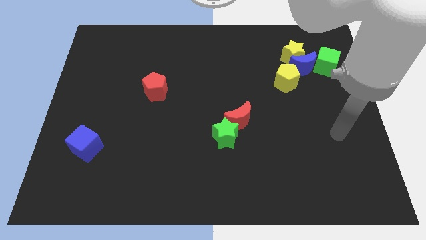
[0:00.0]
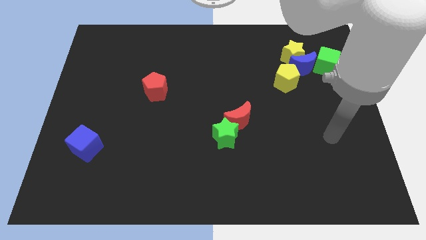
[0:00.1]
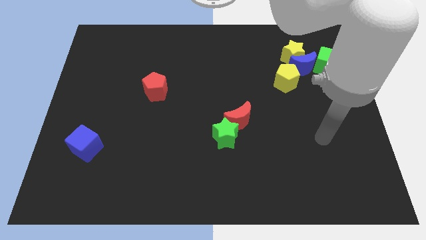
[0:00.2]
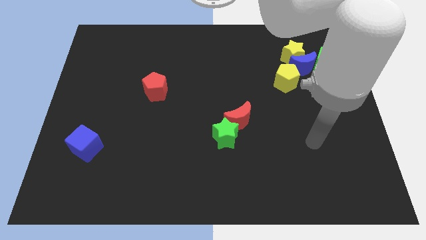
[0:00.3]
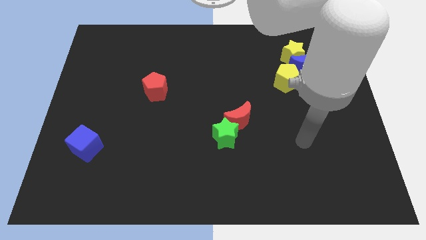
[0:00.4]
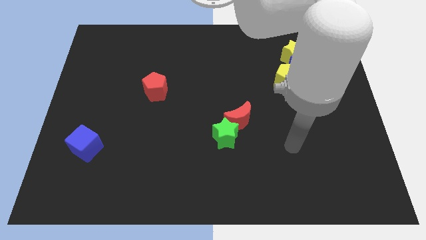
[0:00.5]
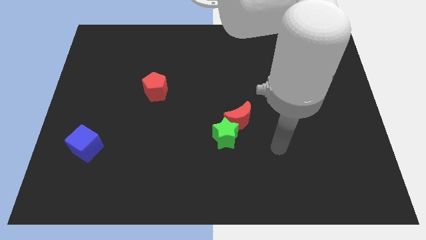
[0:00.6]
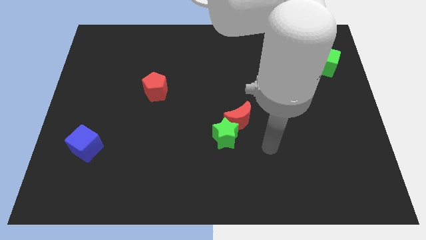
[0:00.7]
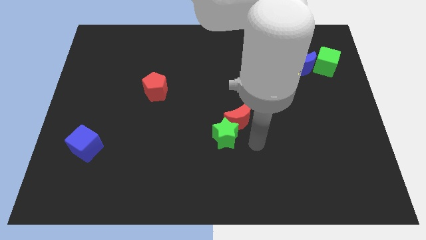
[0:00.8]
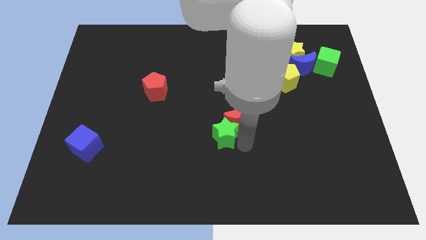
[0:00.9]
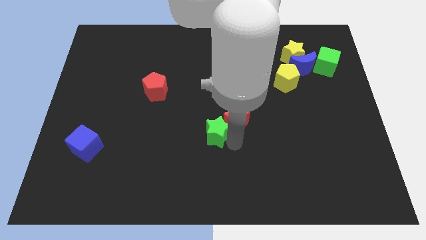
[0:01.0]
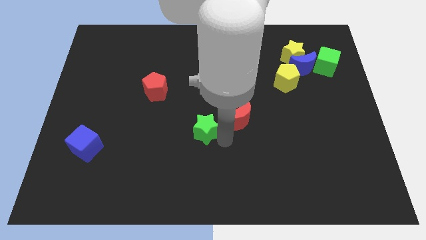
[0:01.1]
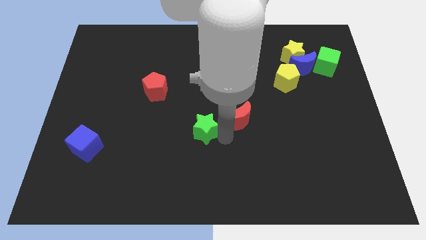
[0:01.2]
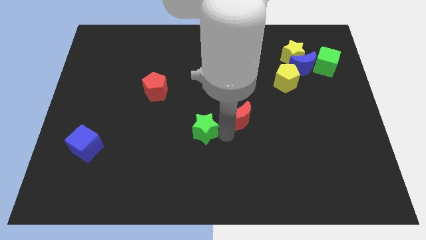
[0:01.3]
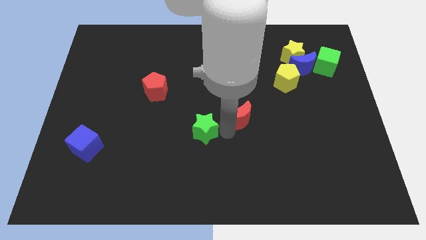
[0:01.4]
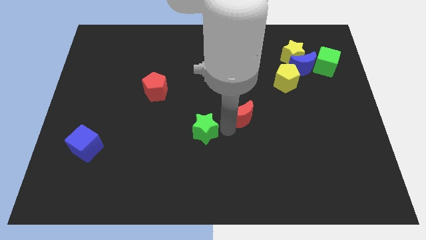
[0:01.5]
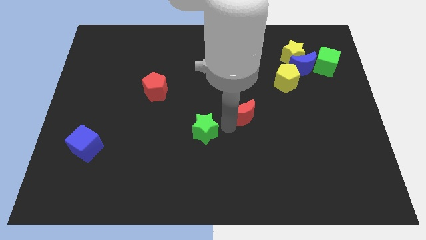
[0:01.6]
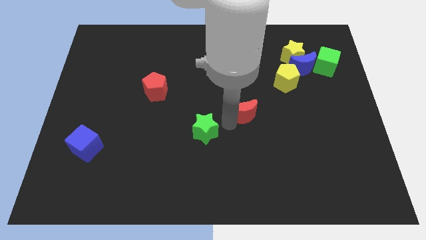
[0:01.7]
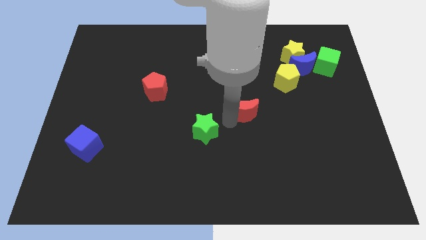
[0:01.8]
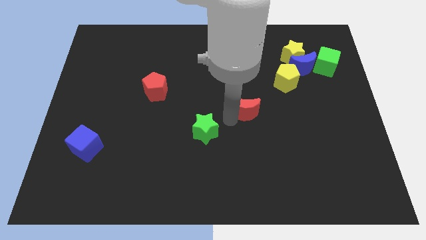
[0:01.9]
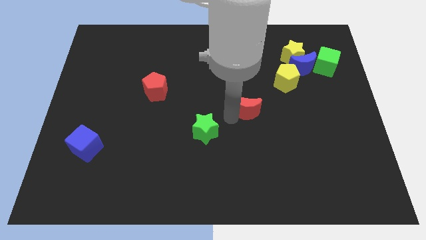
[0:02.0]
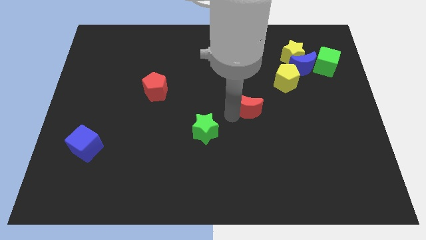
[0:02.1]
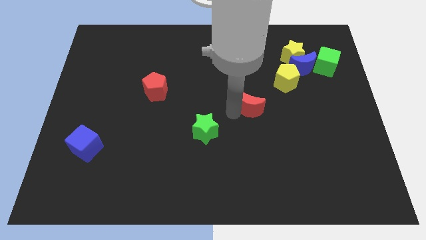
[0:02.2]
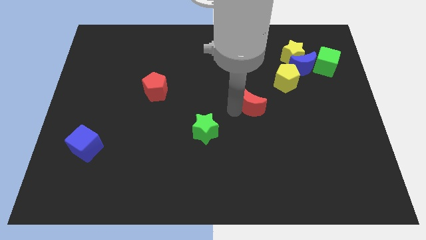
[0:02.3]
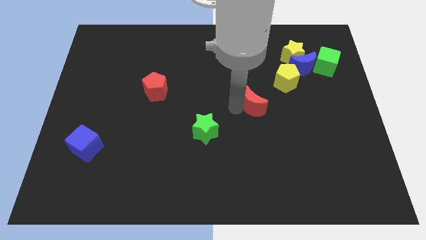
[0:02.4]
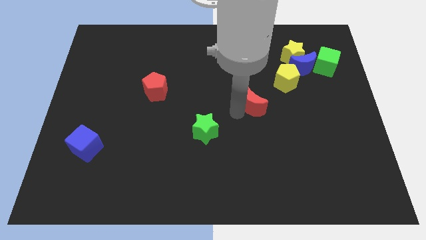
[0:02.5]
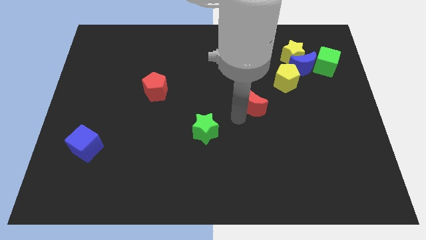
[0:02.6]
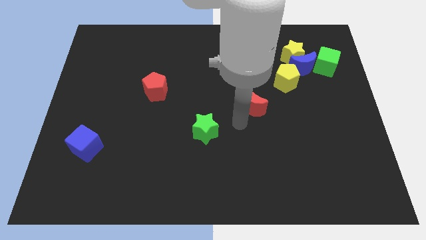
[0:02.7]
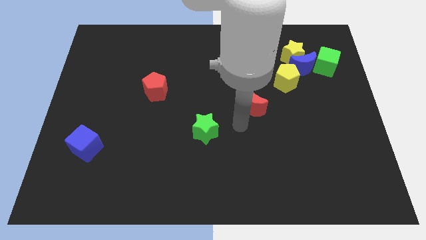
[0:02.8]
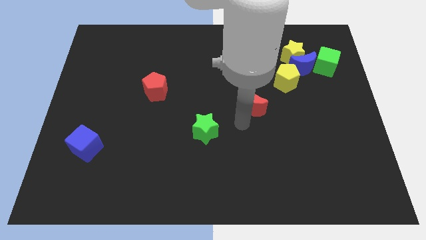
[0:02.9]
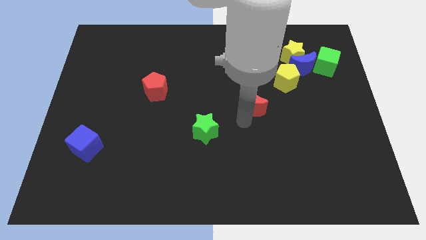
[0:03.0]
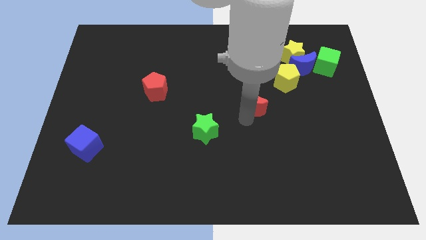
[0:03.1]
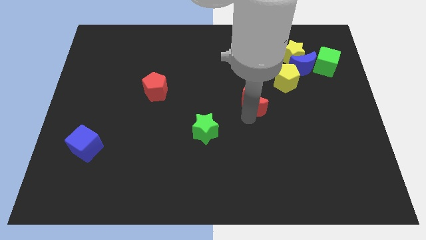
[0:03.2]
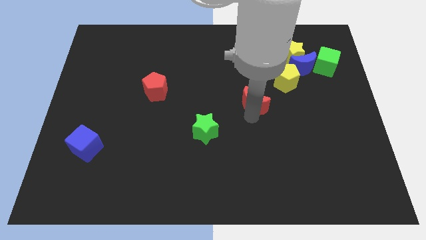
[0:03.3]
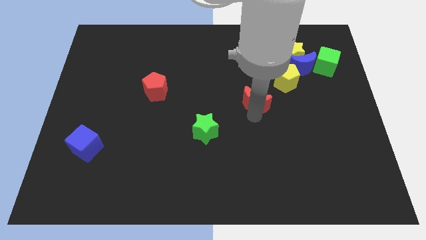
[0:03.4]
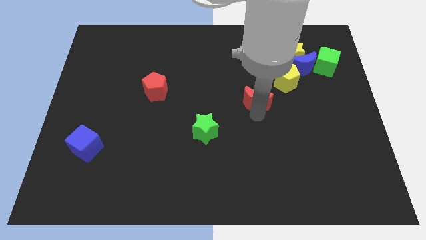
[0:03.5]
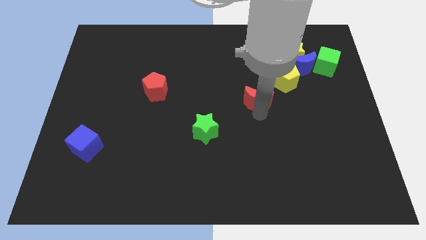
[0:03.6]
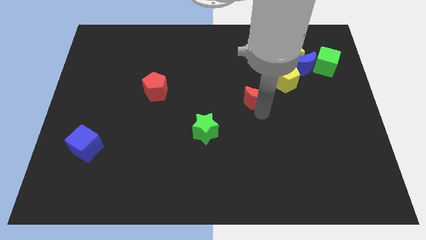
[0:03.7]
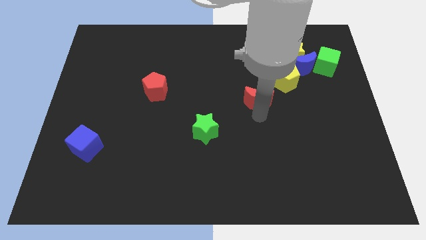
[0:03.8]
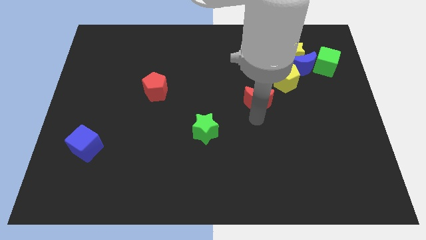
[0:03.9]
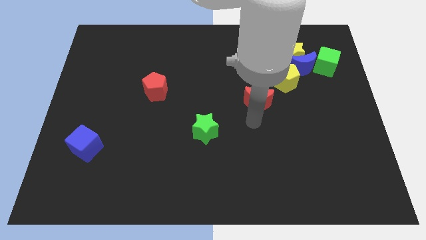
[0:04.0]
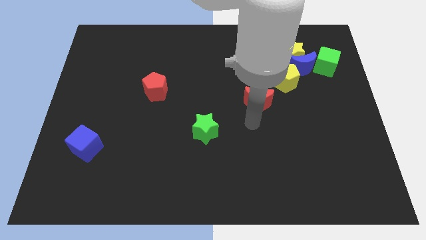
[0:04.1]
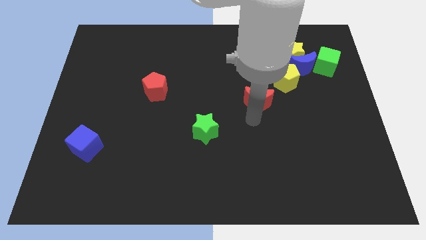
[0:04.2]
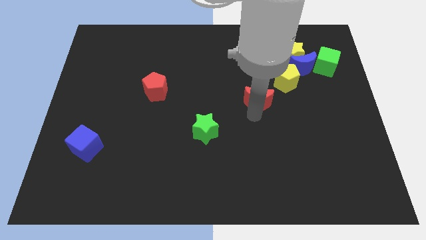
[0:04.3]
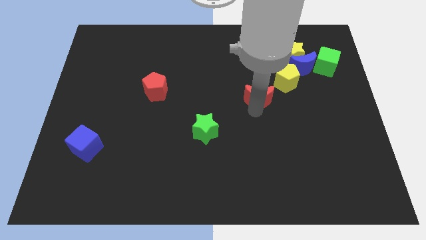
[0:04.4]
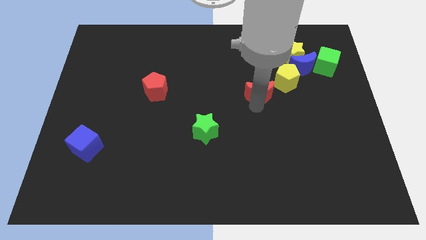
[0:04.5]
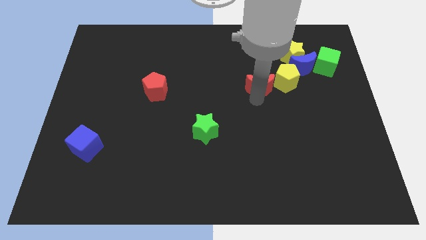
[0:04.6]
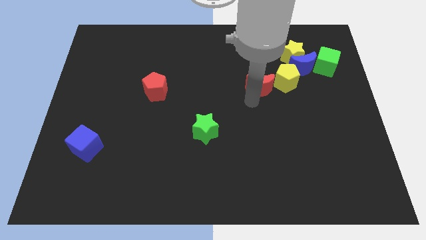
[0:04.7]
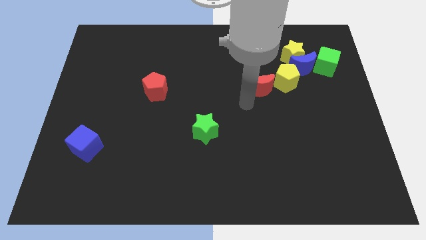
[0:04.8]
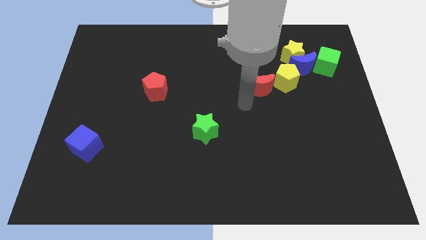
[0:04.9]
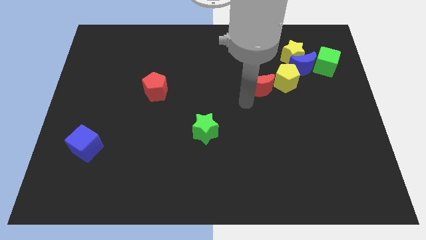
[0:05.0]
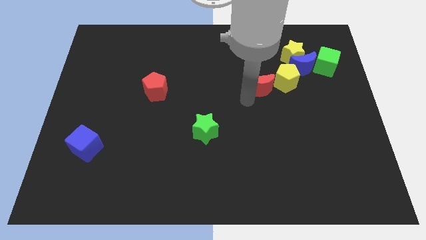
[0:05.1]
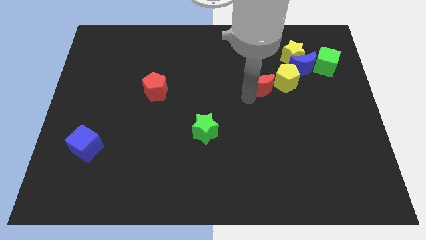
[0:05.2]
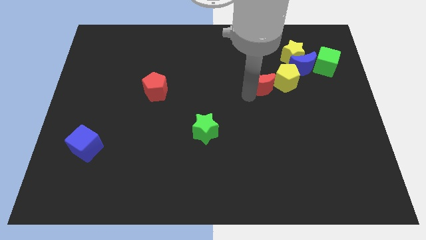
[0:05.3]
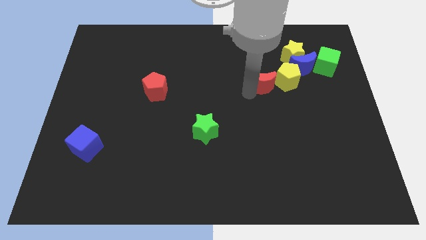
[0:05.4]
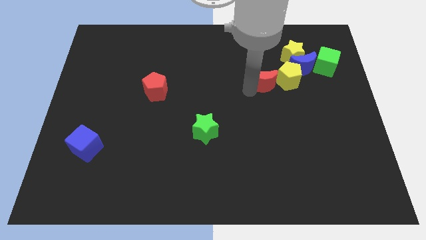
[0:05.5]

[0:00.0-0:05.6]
push the red moon diagonally down and to the left of the yellow star

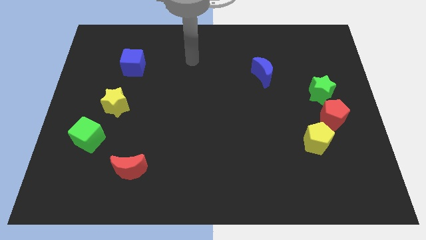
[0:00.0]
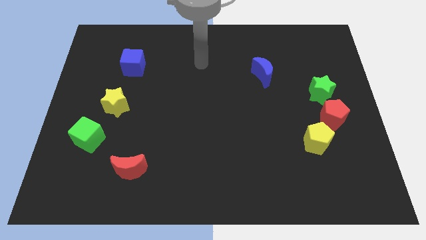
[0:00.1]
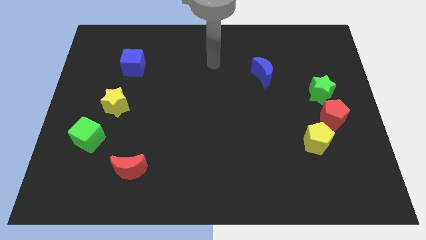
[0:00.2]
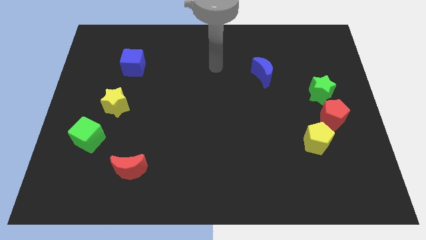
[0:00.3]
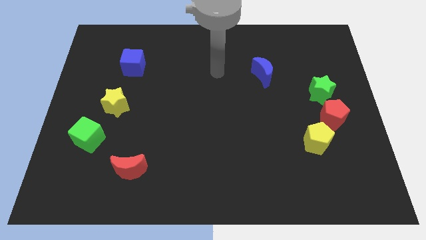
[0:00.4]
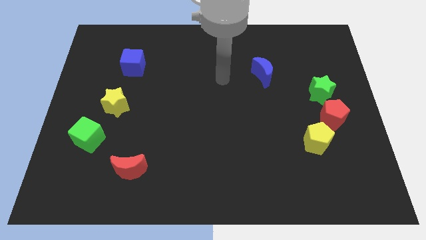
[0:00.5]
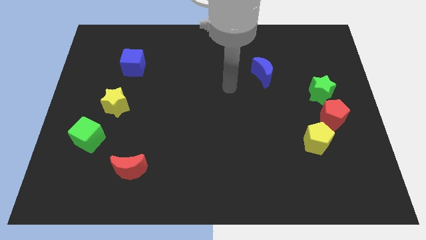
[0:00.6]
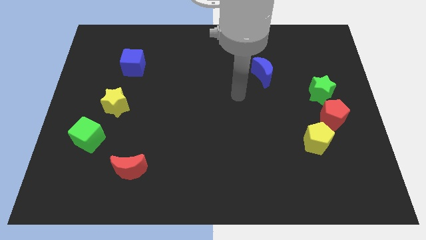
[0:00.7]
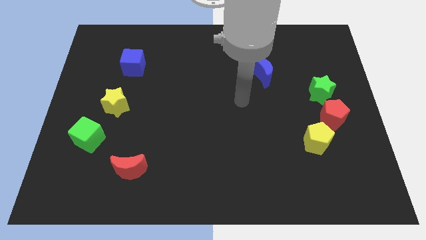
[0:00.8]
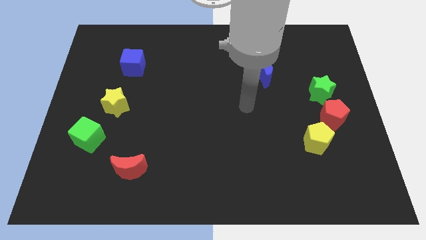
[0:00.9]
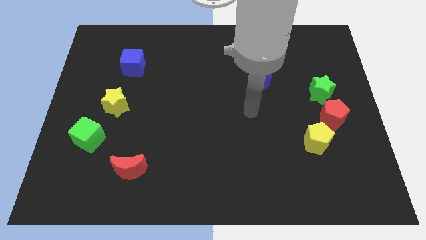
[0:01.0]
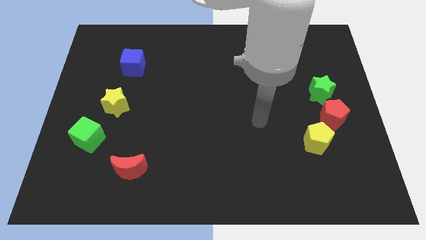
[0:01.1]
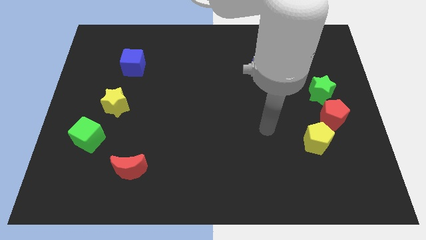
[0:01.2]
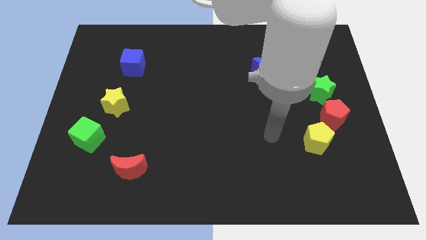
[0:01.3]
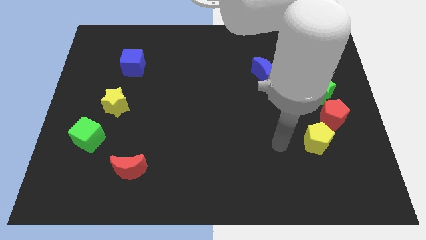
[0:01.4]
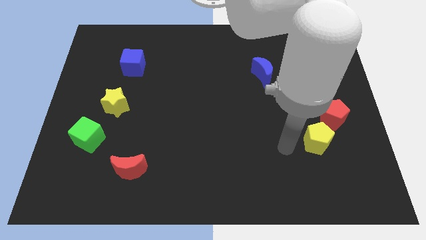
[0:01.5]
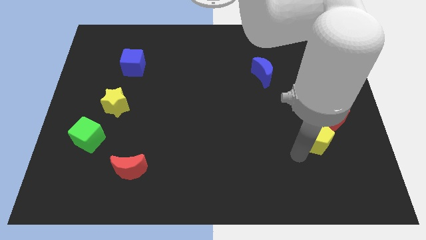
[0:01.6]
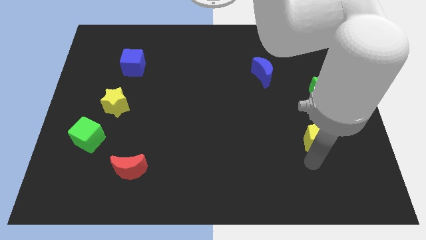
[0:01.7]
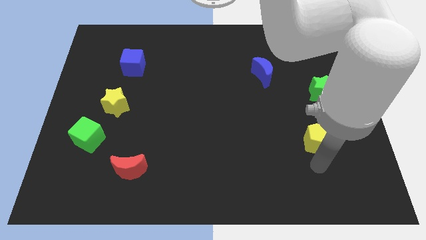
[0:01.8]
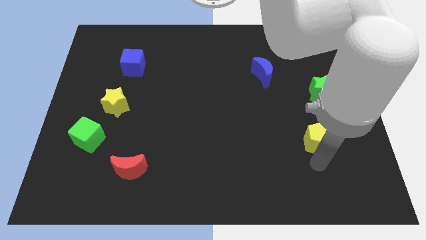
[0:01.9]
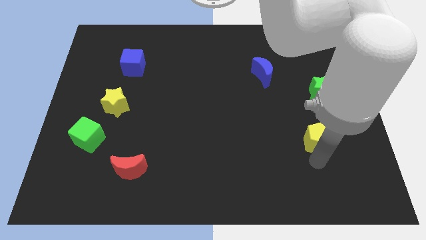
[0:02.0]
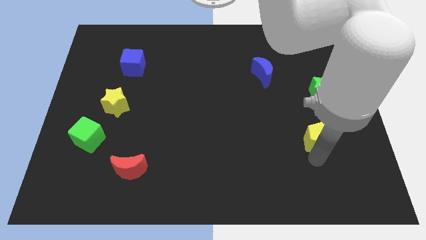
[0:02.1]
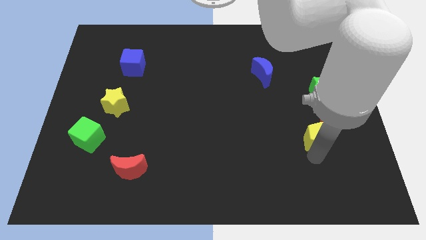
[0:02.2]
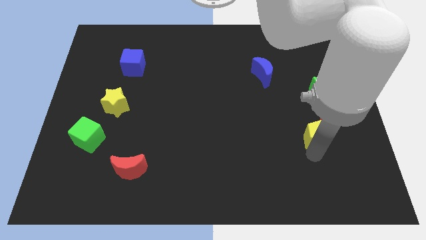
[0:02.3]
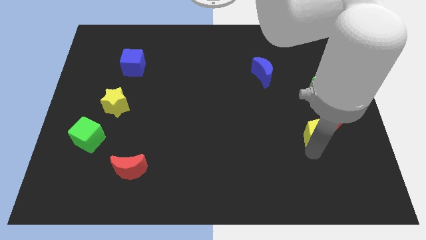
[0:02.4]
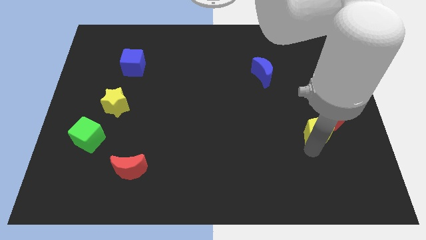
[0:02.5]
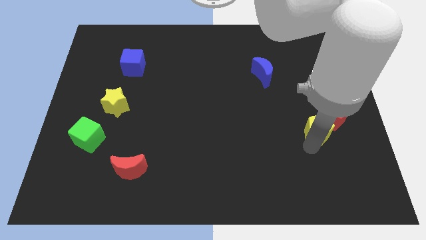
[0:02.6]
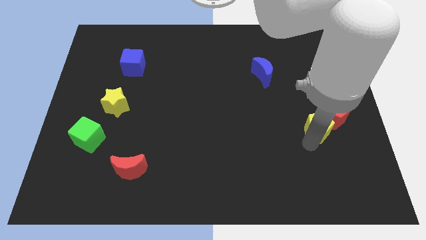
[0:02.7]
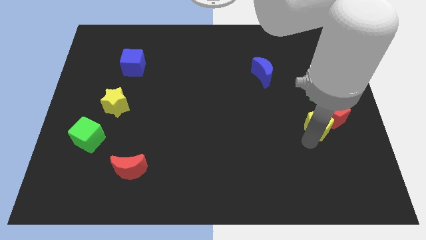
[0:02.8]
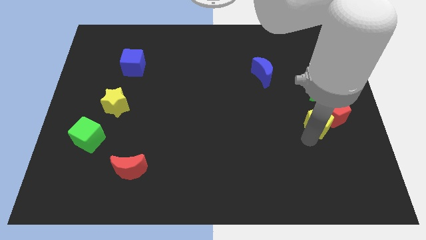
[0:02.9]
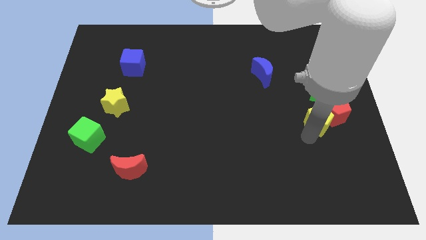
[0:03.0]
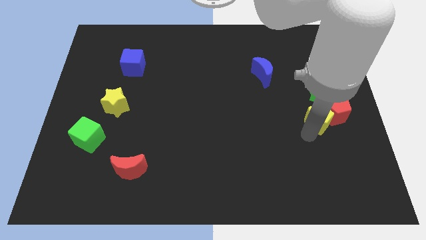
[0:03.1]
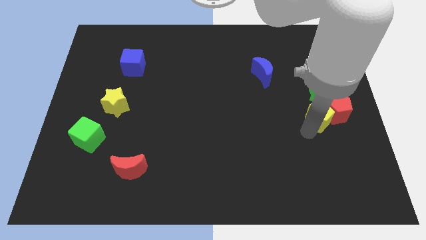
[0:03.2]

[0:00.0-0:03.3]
put the yellow pentagon to the top left of the red pentagon
